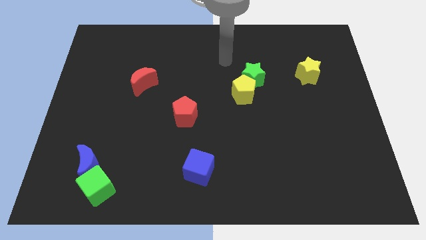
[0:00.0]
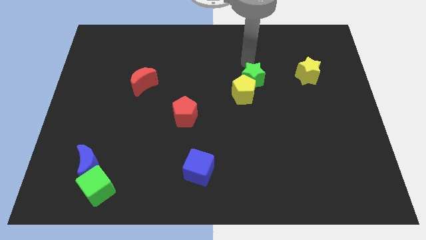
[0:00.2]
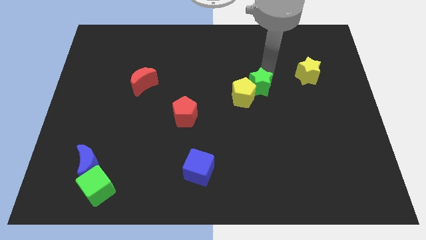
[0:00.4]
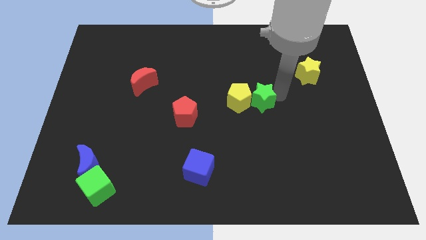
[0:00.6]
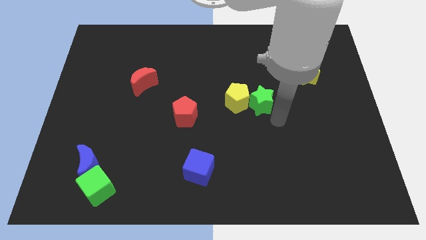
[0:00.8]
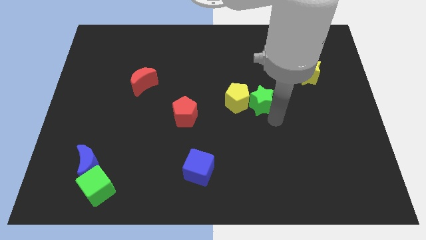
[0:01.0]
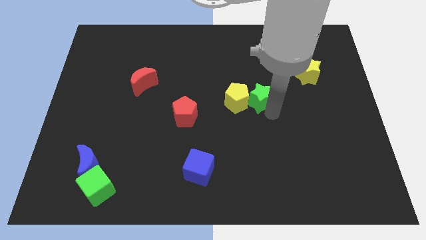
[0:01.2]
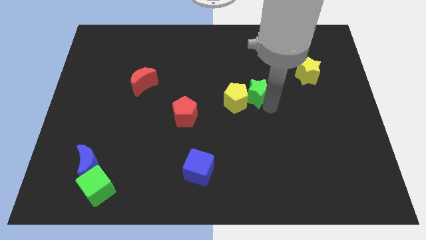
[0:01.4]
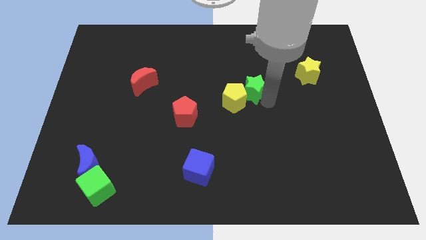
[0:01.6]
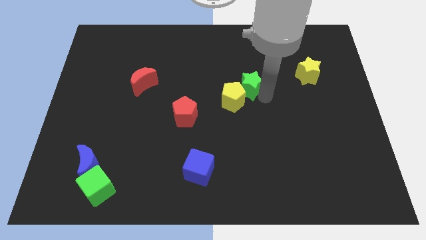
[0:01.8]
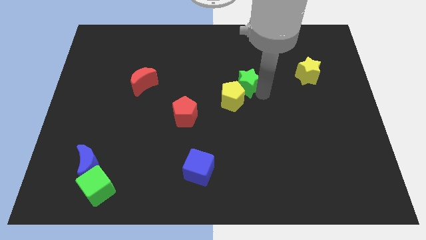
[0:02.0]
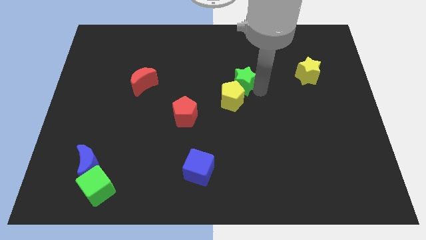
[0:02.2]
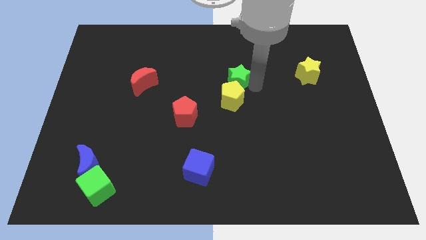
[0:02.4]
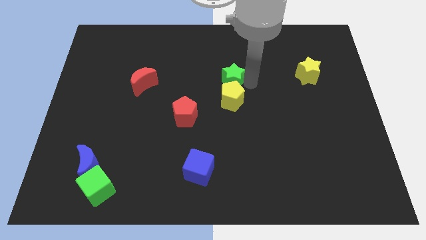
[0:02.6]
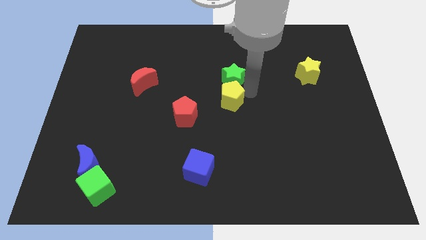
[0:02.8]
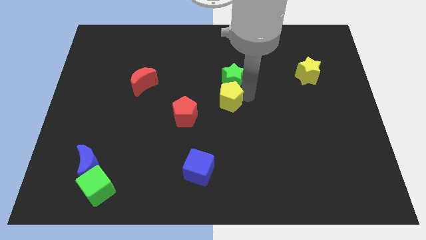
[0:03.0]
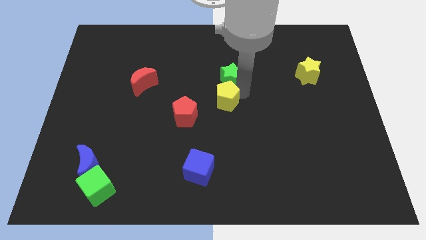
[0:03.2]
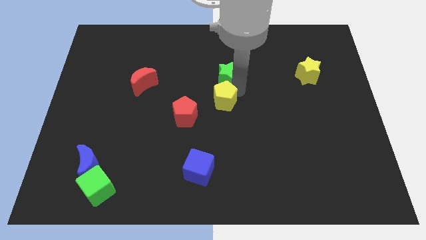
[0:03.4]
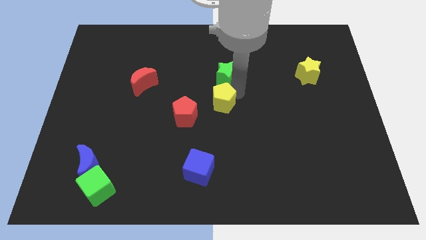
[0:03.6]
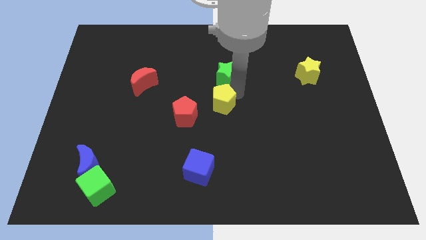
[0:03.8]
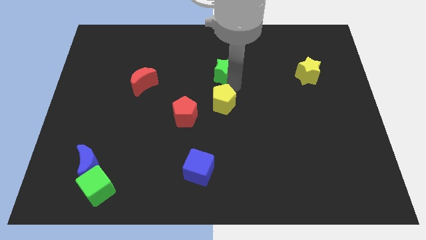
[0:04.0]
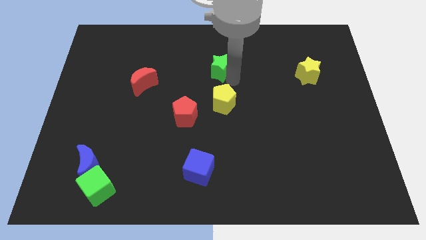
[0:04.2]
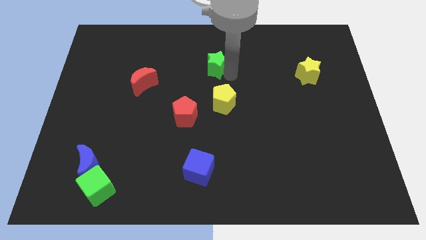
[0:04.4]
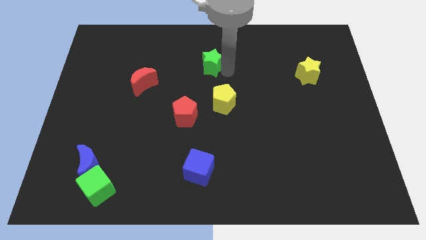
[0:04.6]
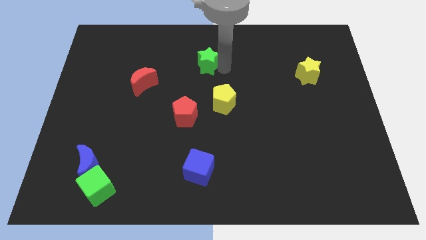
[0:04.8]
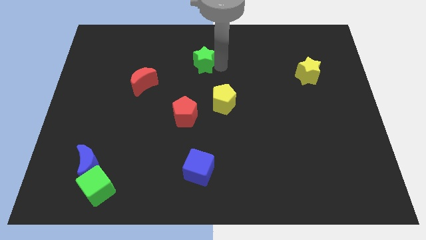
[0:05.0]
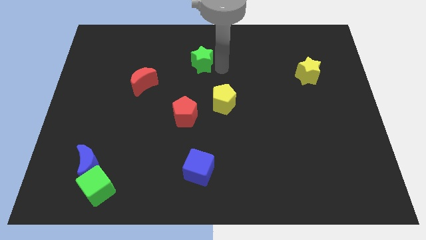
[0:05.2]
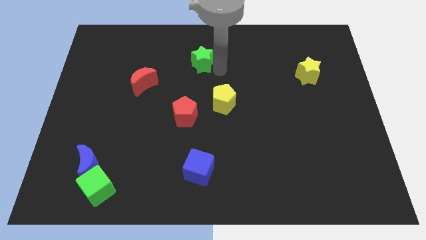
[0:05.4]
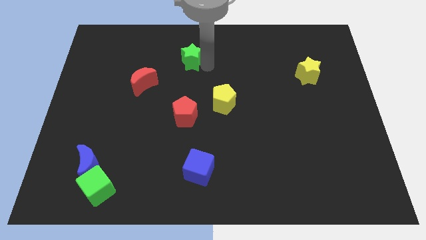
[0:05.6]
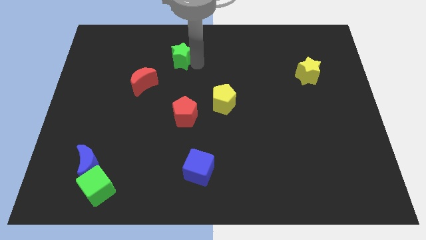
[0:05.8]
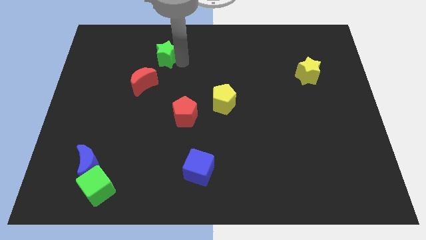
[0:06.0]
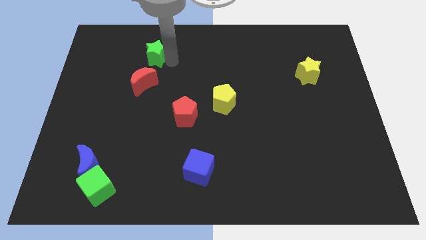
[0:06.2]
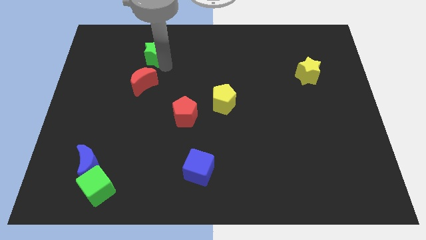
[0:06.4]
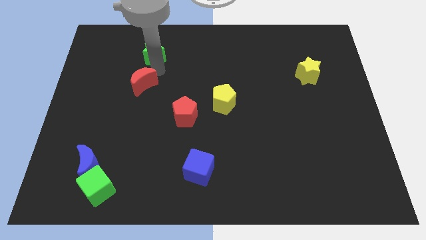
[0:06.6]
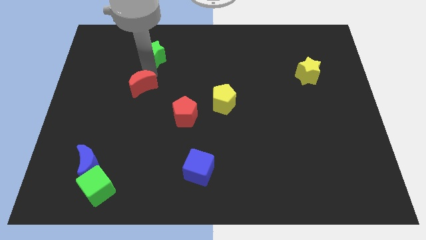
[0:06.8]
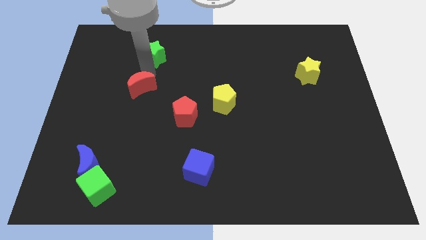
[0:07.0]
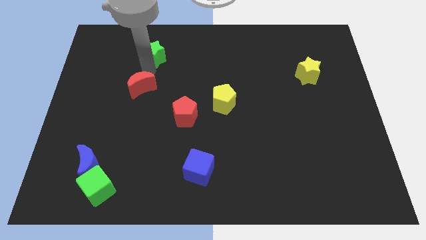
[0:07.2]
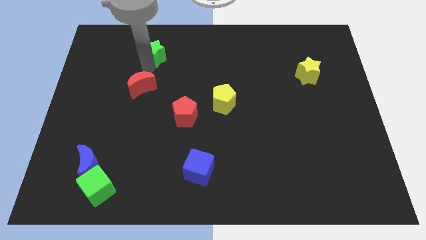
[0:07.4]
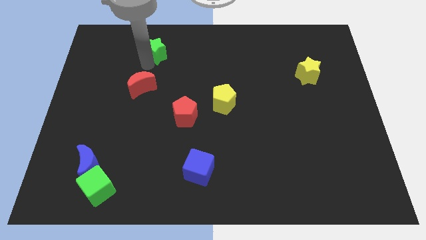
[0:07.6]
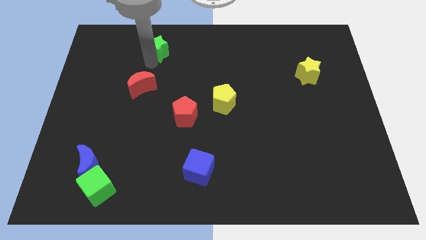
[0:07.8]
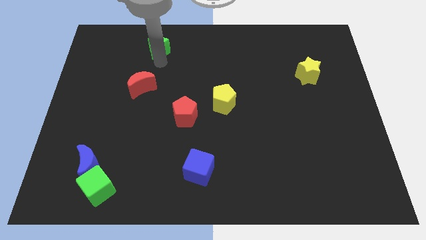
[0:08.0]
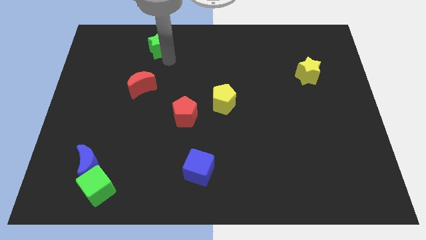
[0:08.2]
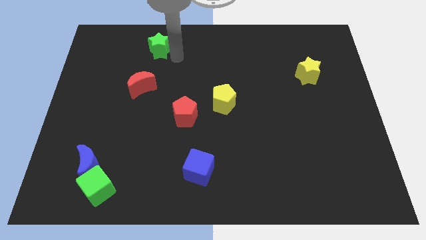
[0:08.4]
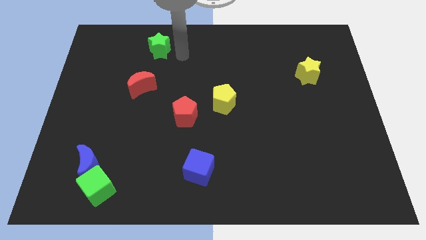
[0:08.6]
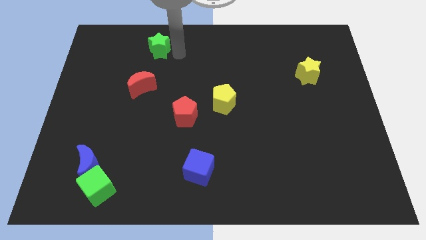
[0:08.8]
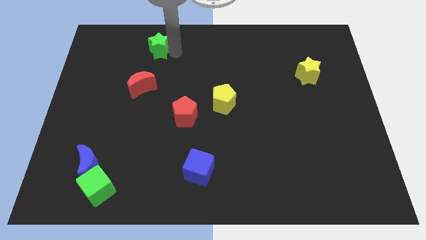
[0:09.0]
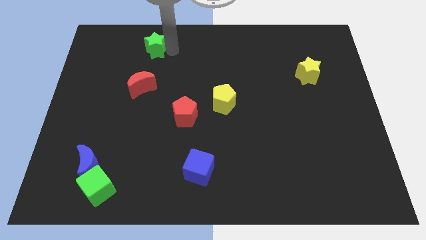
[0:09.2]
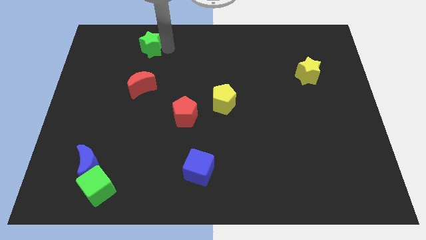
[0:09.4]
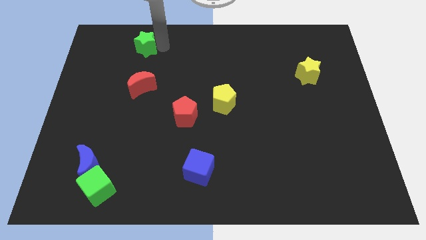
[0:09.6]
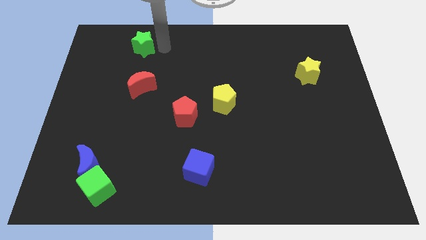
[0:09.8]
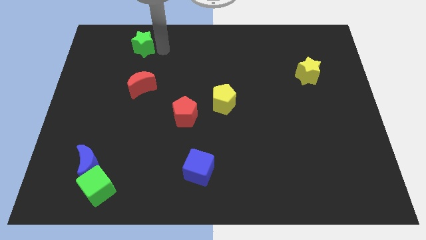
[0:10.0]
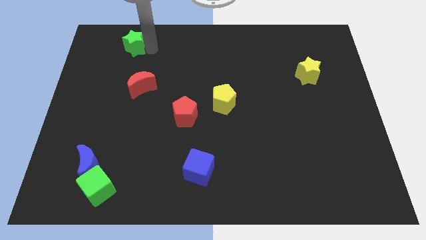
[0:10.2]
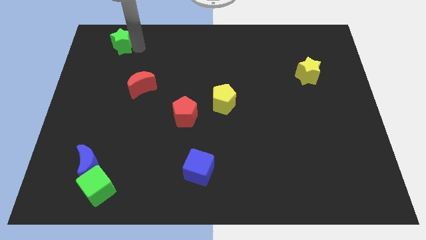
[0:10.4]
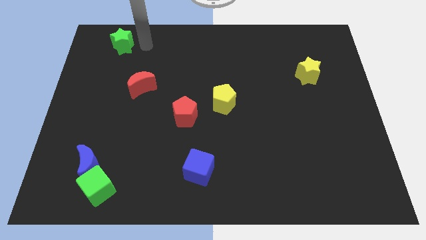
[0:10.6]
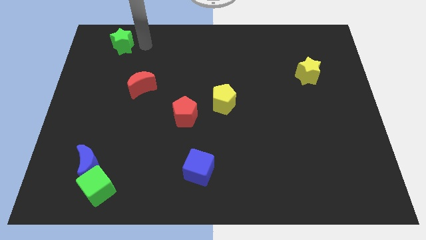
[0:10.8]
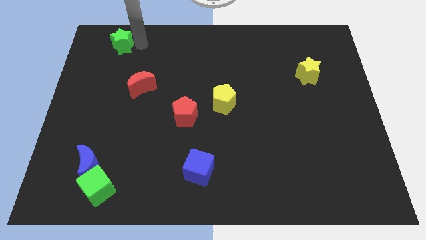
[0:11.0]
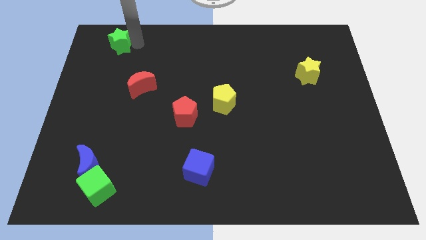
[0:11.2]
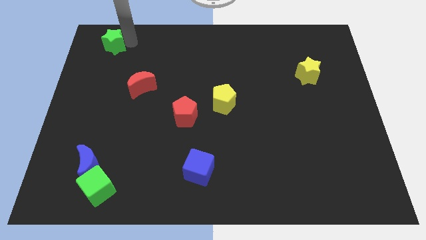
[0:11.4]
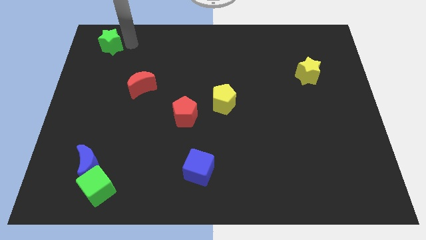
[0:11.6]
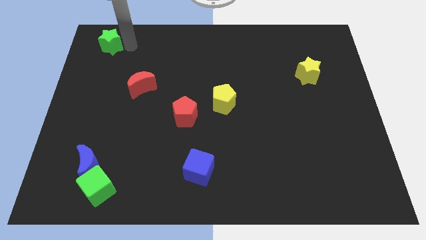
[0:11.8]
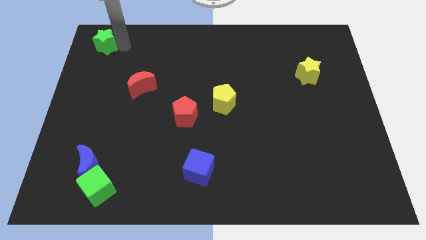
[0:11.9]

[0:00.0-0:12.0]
put the green star to the top left
